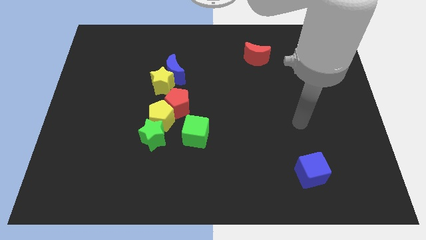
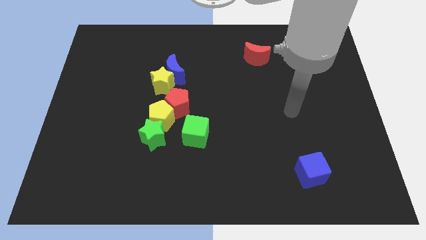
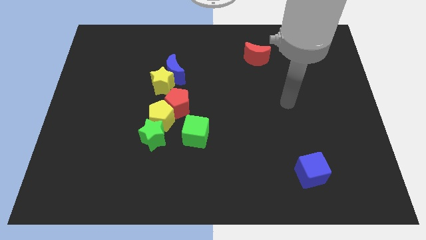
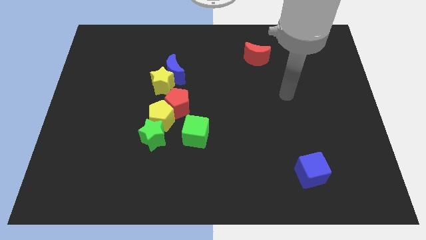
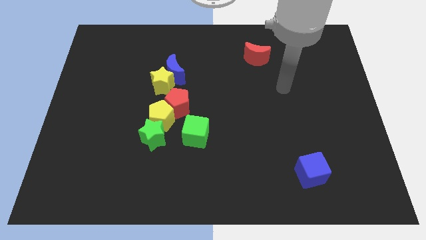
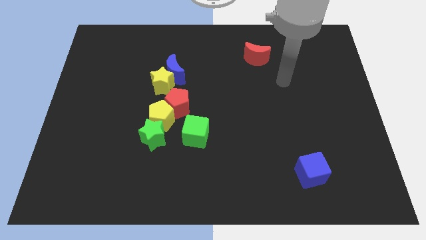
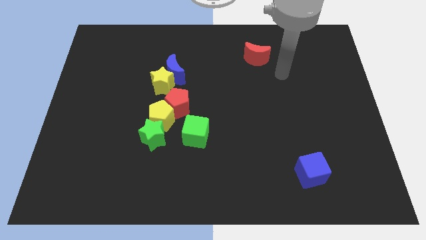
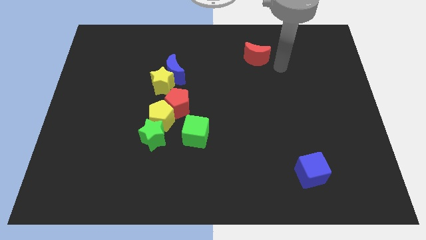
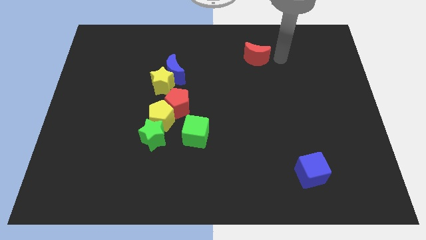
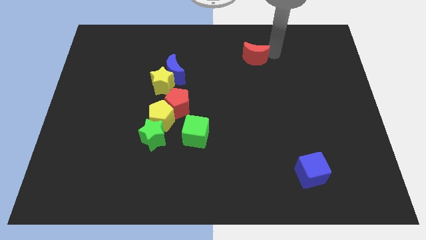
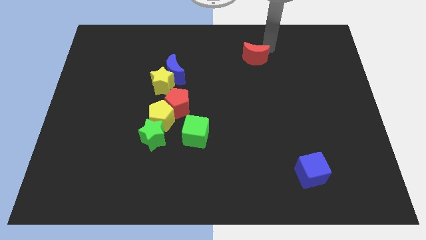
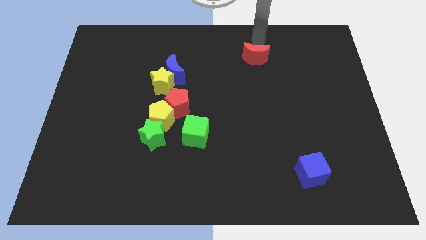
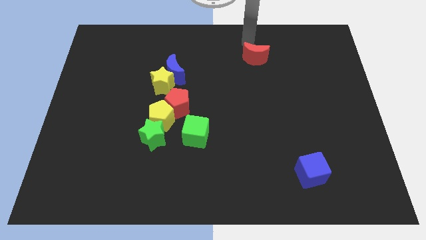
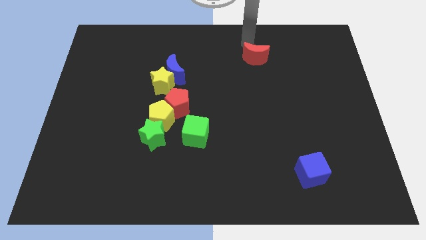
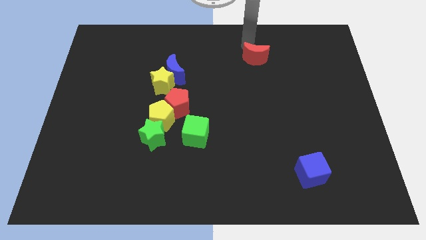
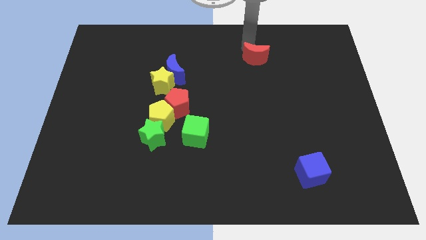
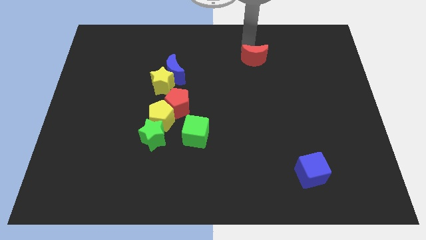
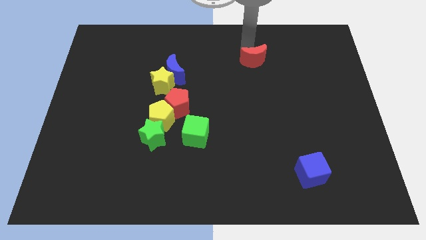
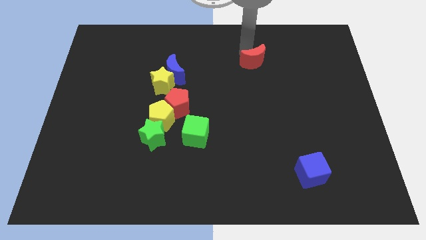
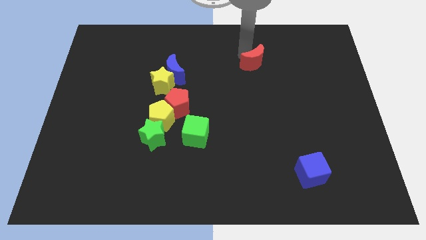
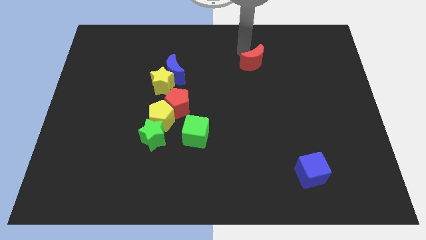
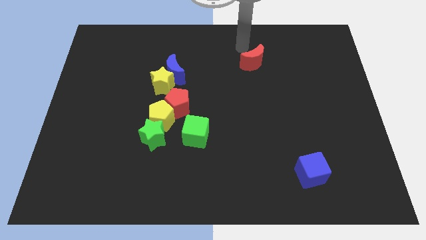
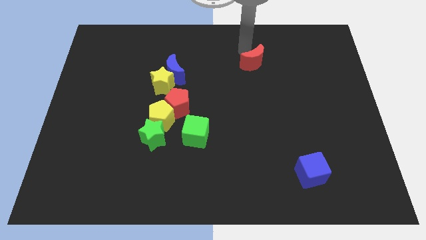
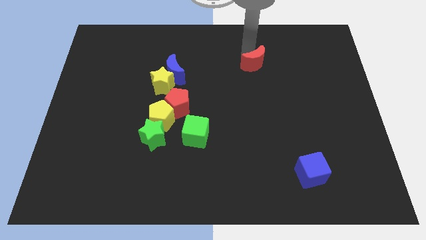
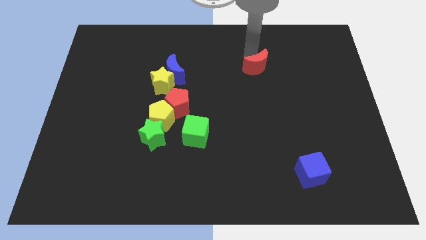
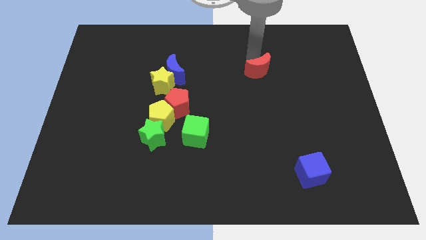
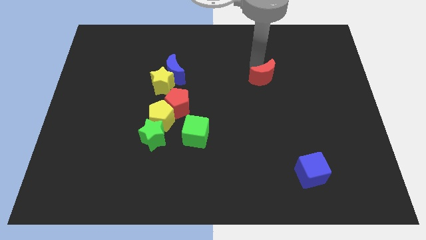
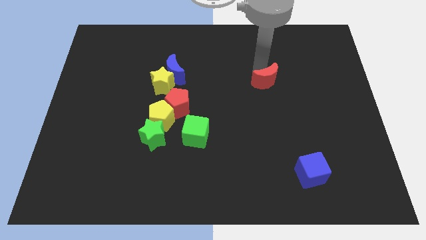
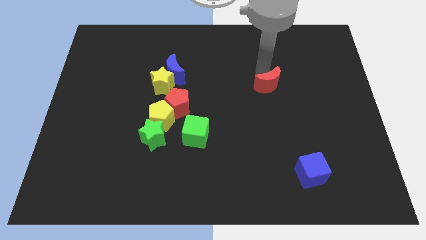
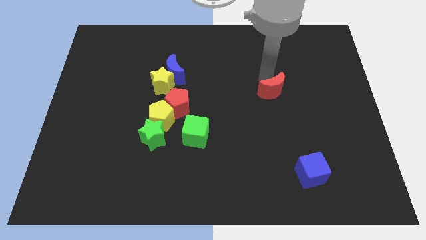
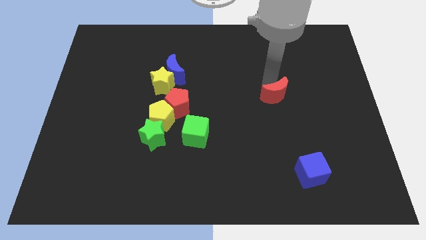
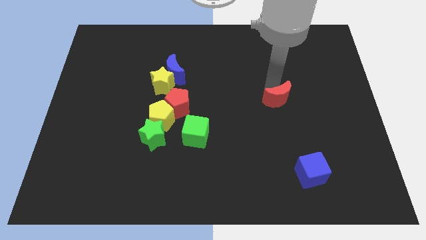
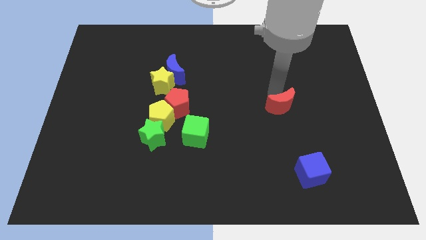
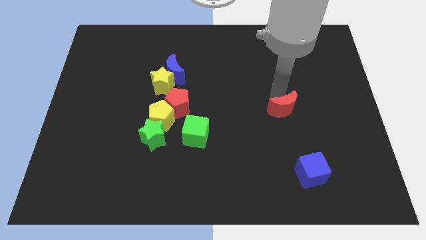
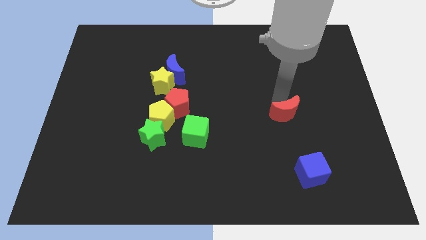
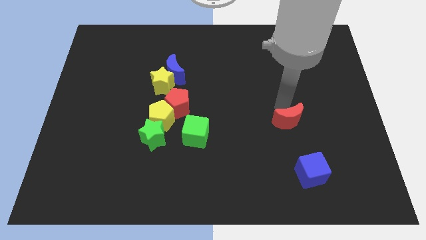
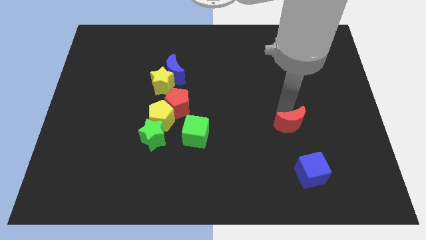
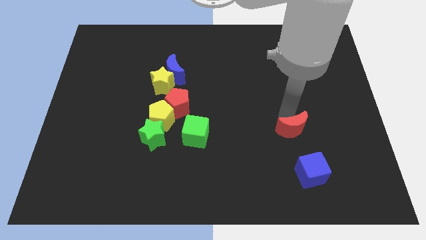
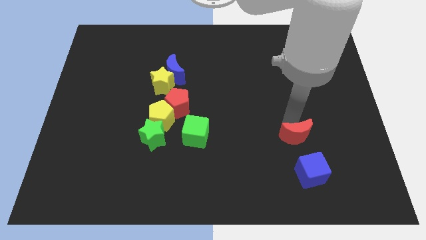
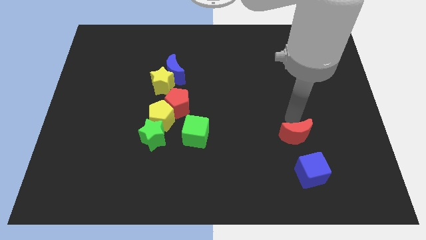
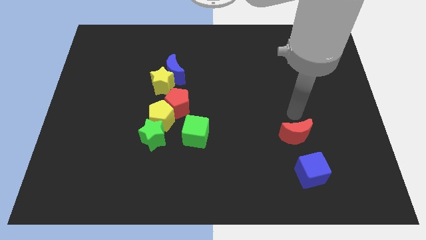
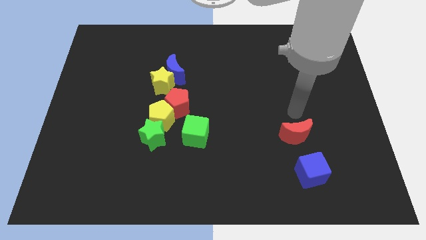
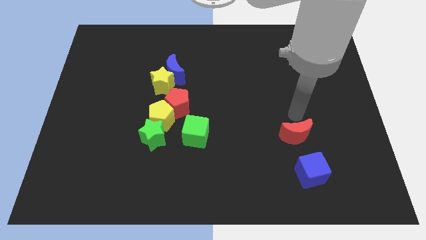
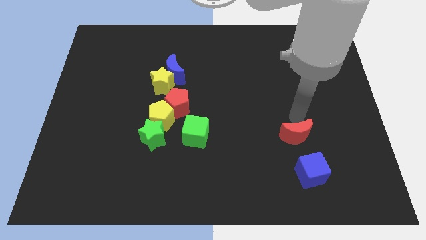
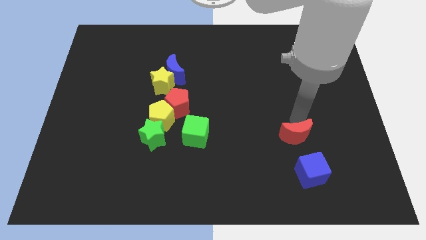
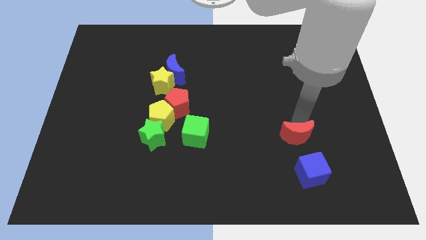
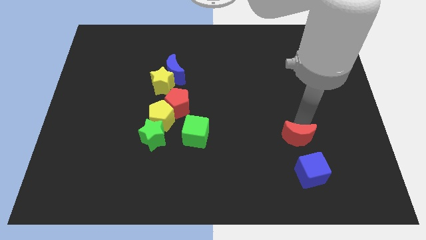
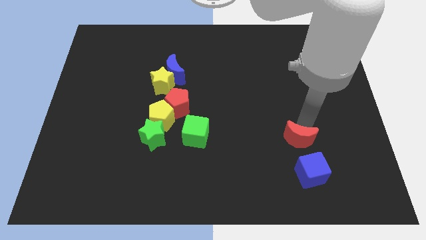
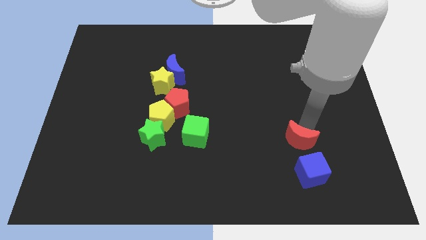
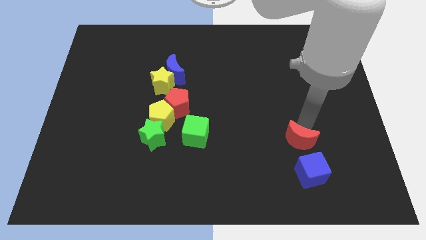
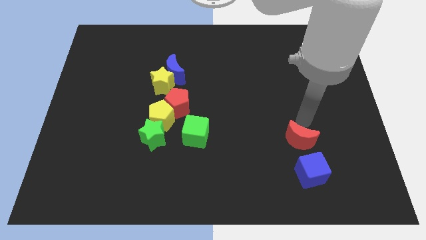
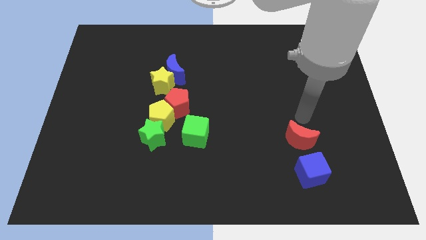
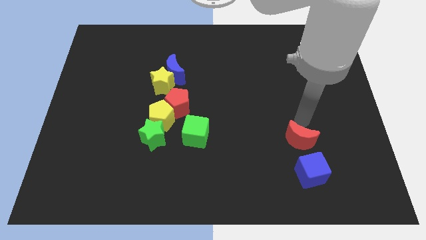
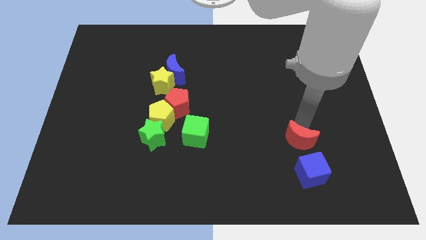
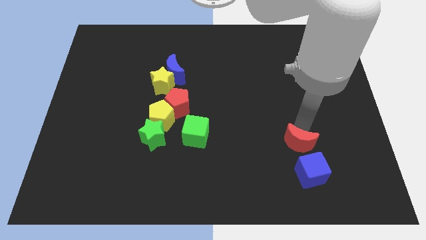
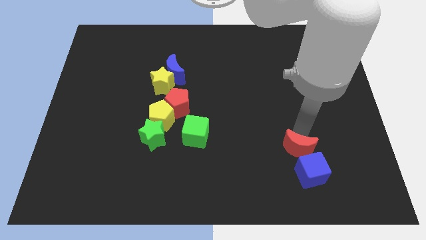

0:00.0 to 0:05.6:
push the red moon next to the blue cube

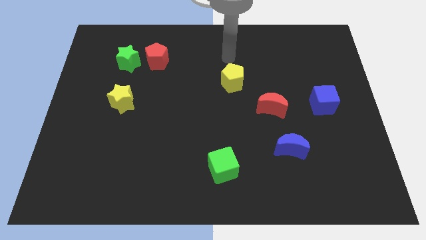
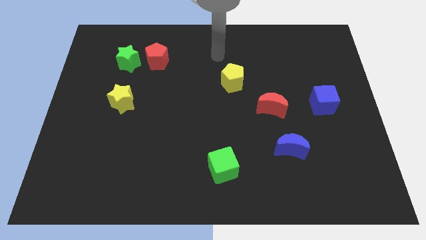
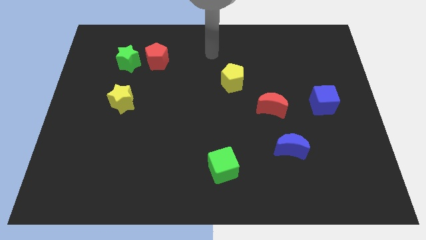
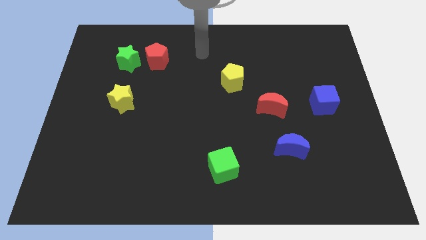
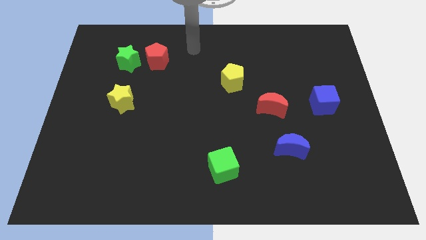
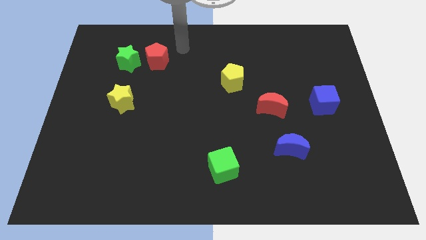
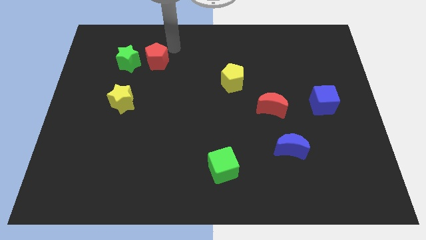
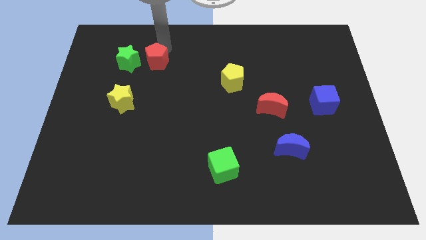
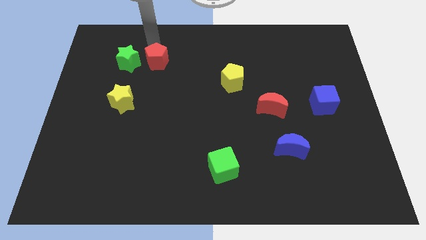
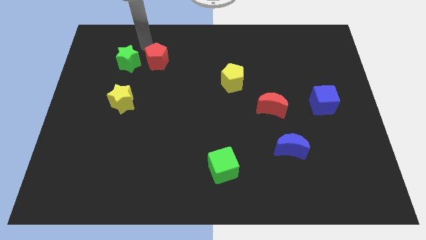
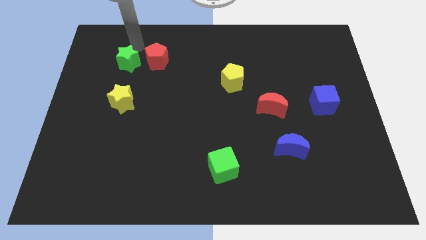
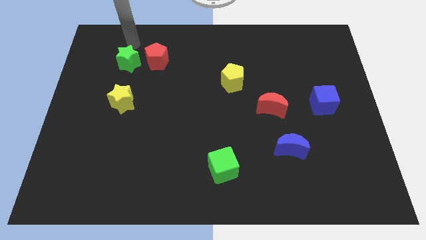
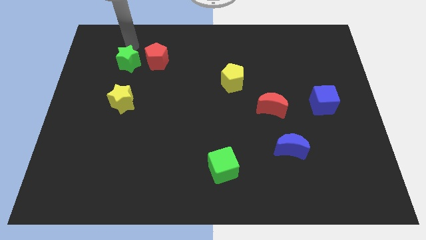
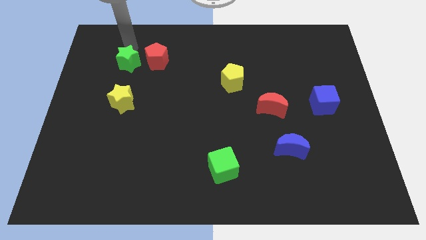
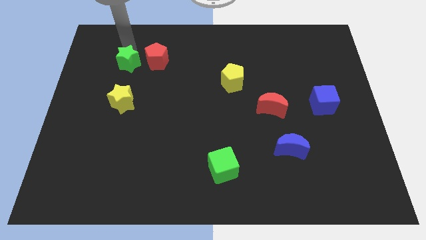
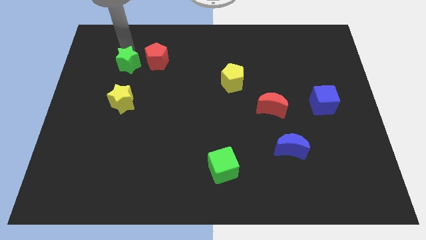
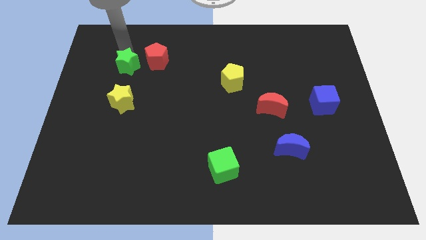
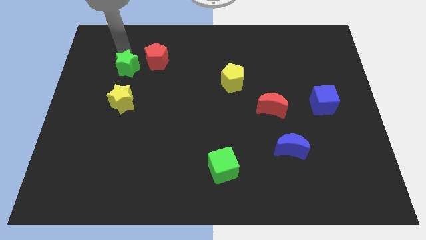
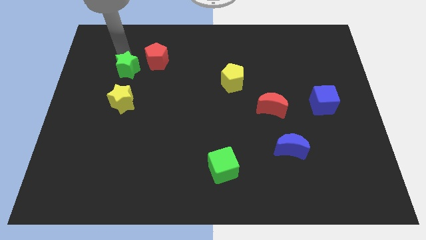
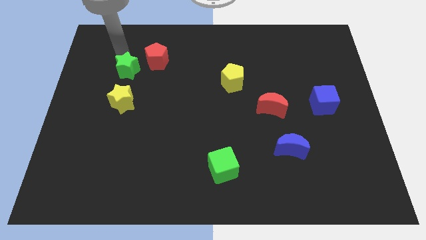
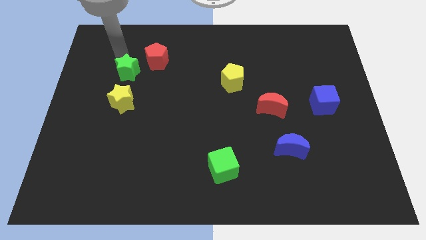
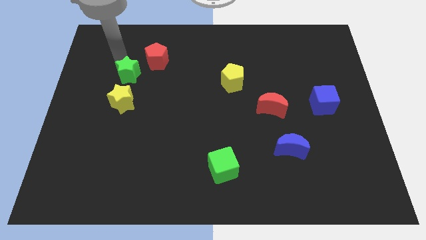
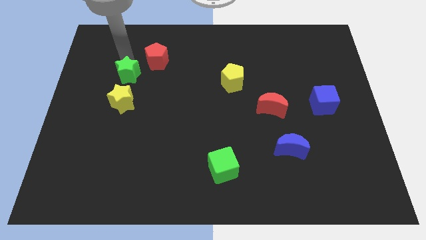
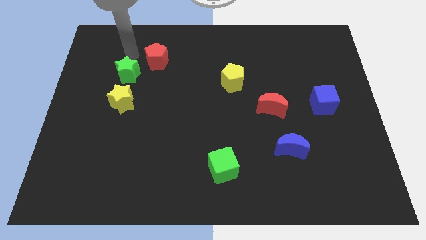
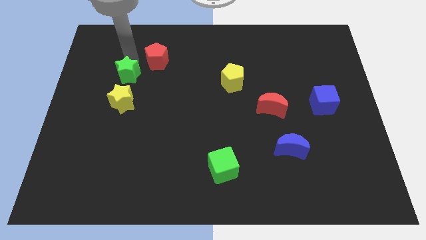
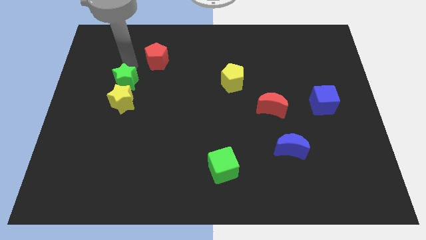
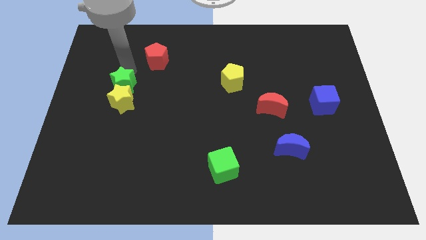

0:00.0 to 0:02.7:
slide the green star next to the yellow star
